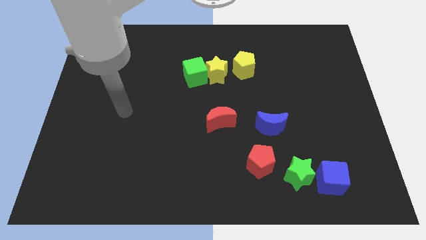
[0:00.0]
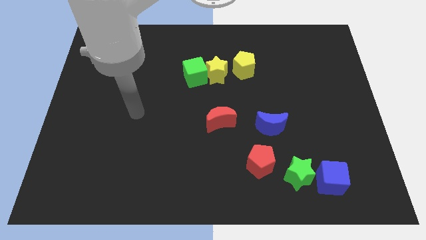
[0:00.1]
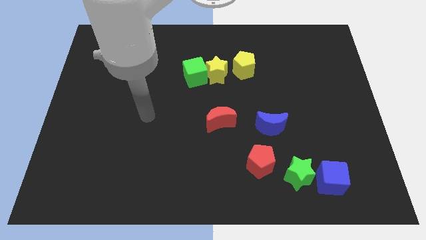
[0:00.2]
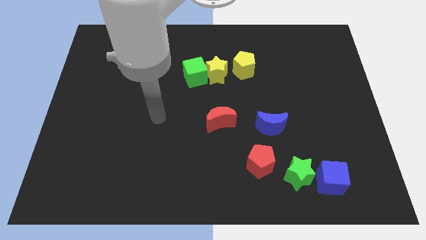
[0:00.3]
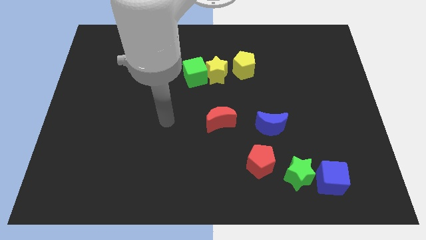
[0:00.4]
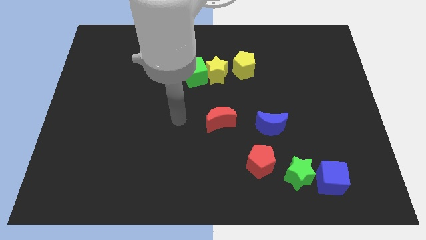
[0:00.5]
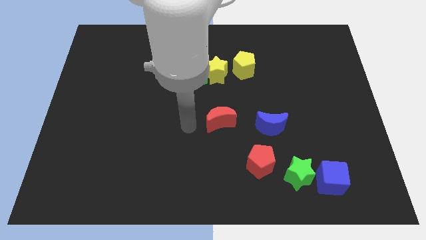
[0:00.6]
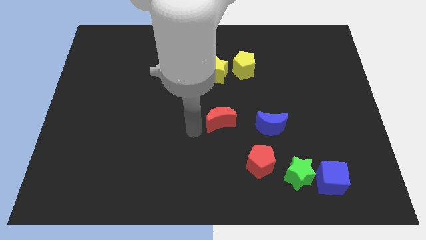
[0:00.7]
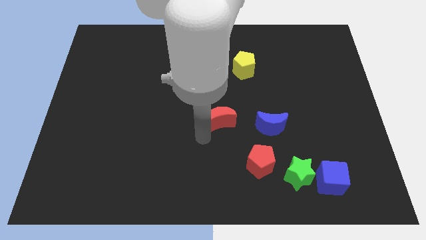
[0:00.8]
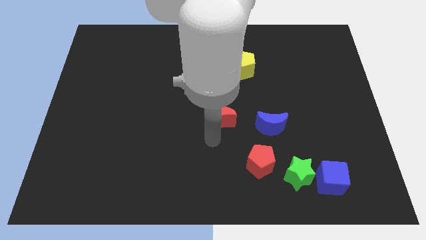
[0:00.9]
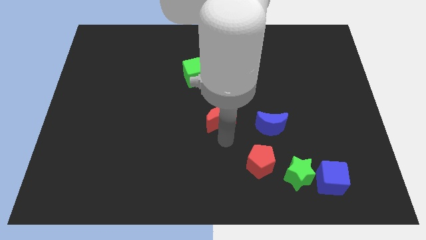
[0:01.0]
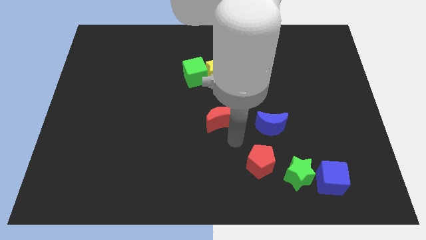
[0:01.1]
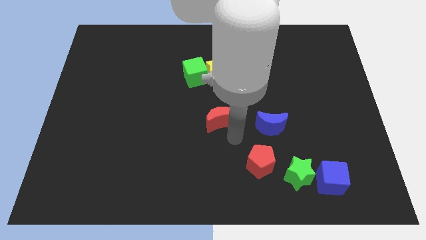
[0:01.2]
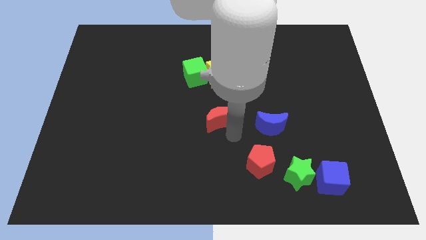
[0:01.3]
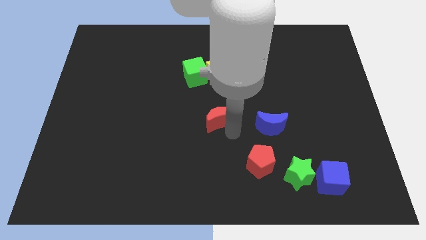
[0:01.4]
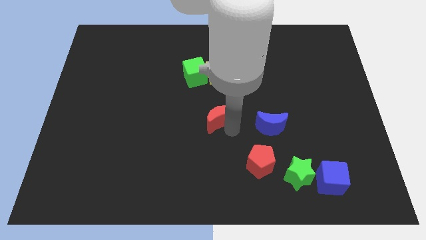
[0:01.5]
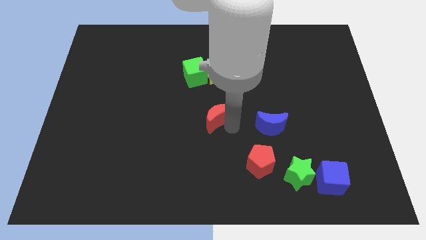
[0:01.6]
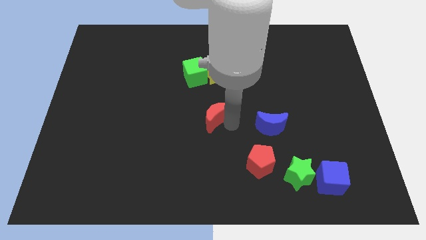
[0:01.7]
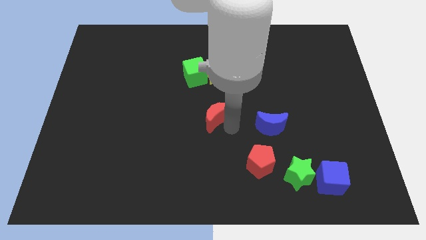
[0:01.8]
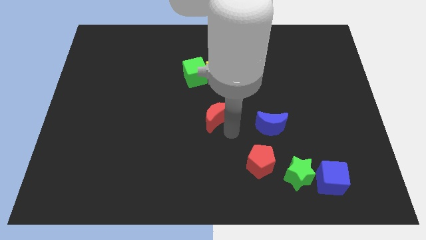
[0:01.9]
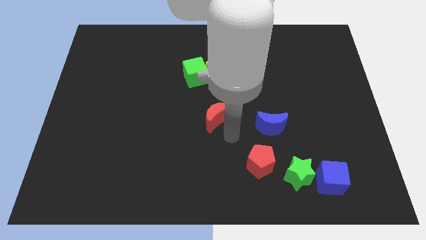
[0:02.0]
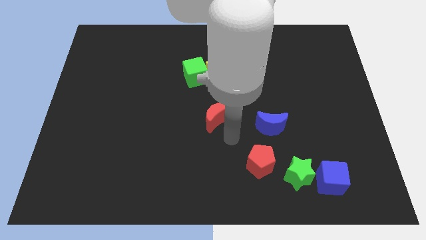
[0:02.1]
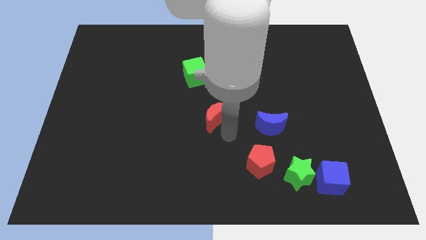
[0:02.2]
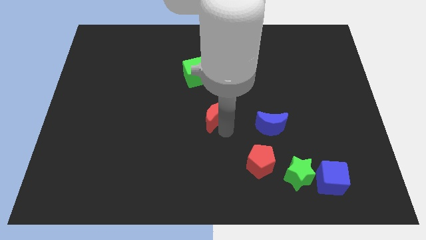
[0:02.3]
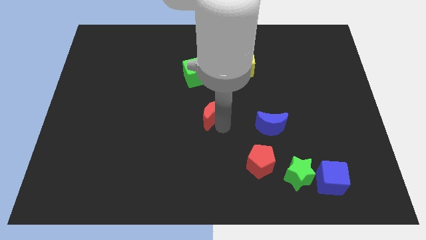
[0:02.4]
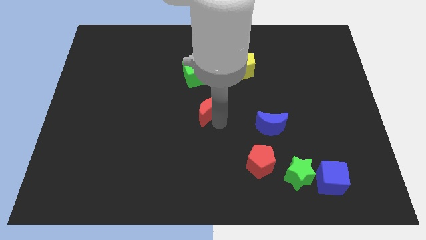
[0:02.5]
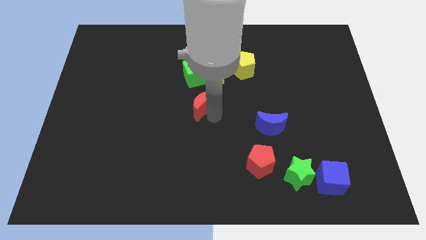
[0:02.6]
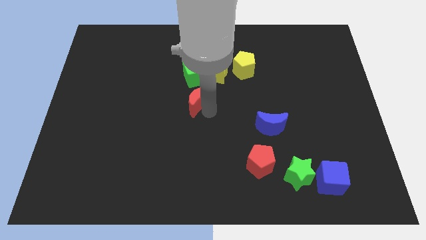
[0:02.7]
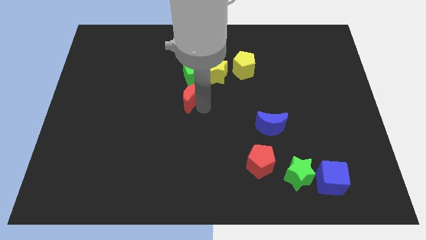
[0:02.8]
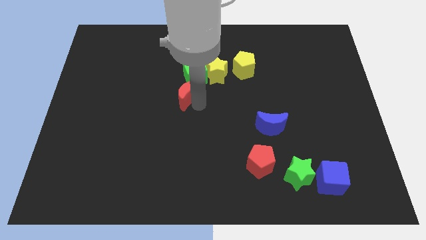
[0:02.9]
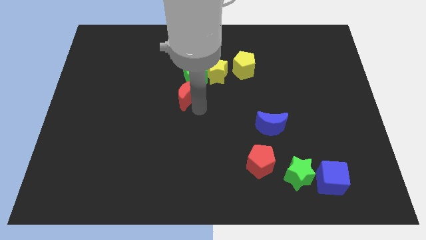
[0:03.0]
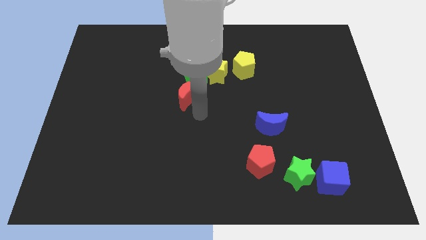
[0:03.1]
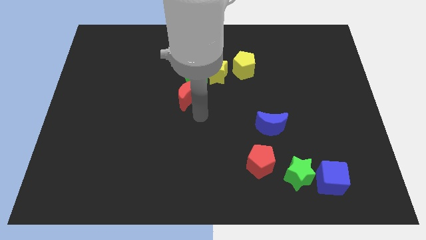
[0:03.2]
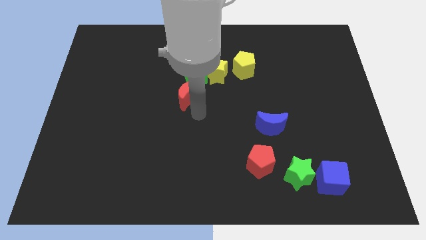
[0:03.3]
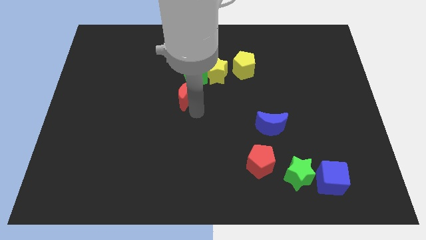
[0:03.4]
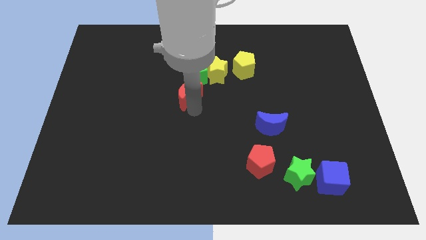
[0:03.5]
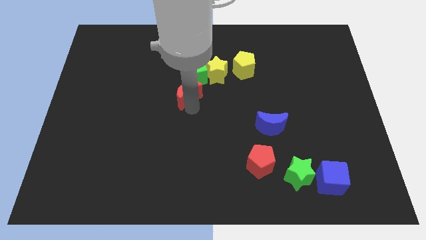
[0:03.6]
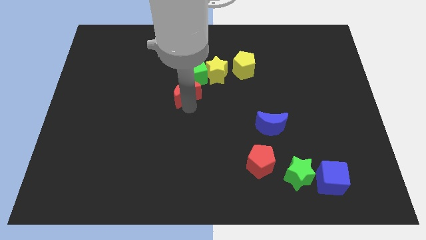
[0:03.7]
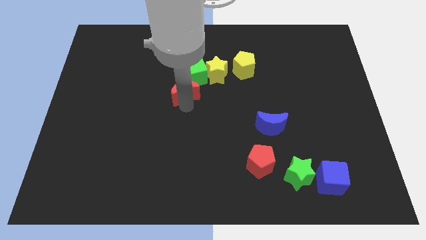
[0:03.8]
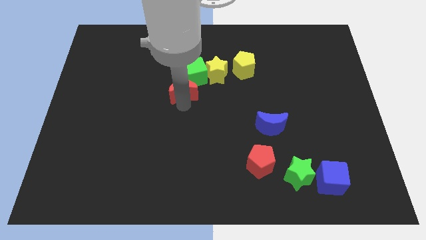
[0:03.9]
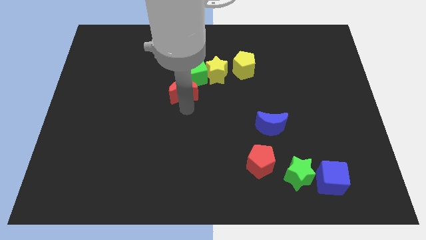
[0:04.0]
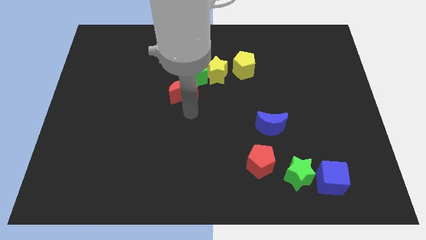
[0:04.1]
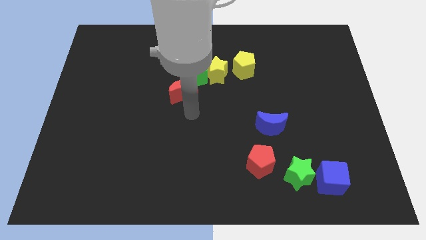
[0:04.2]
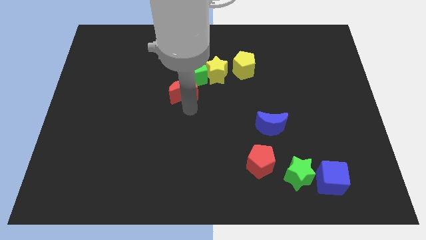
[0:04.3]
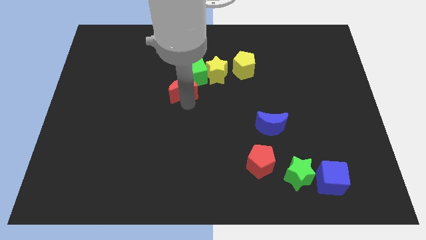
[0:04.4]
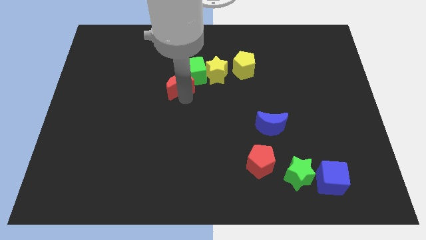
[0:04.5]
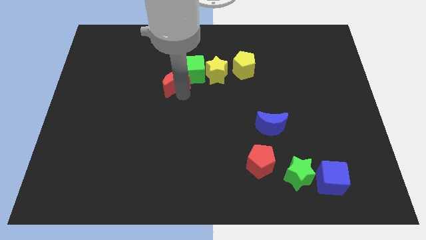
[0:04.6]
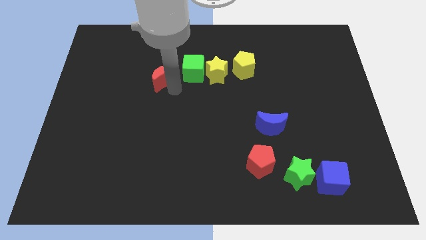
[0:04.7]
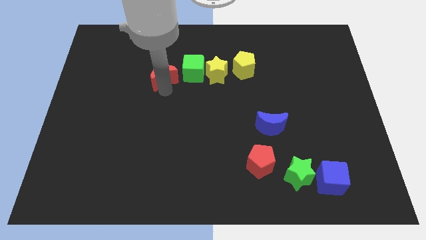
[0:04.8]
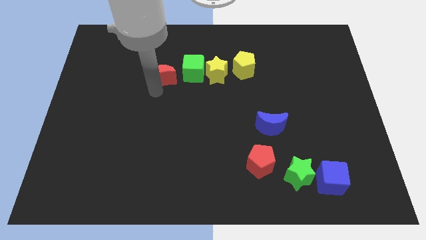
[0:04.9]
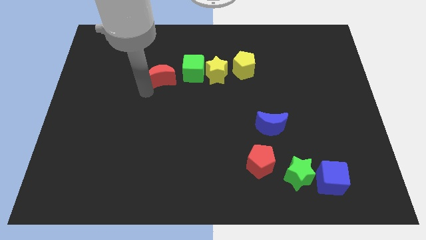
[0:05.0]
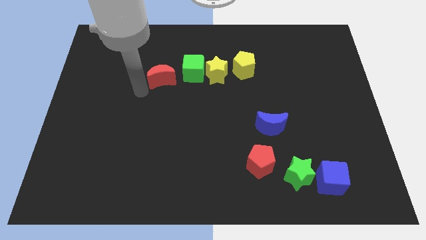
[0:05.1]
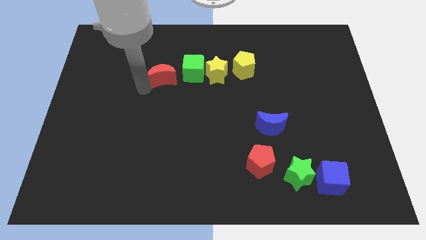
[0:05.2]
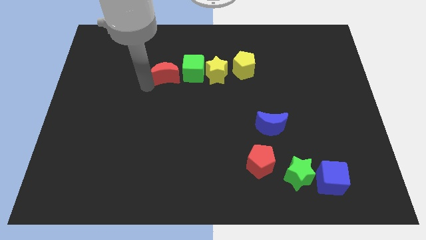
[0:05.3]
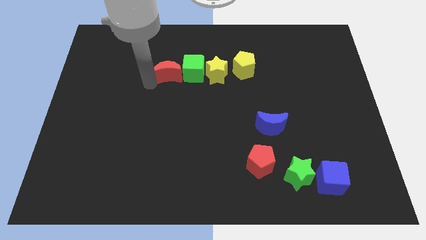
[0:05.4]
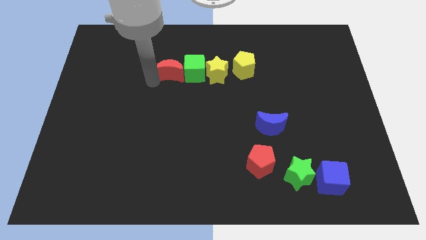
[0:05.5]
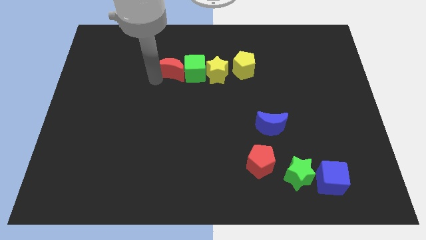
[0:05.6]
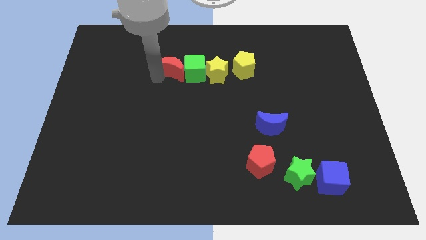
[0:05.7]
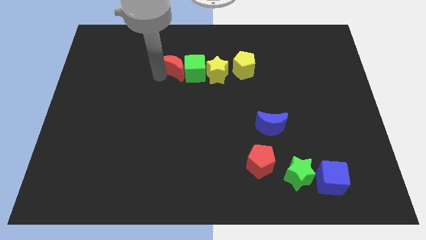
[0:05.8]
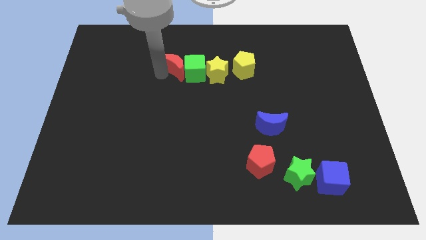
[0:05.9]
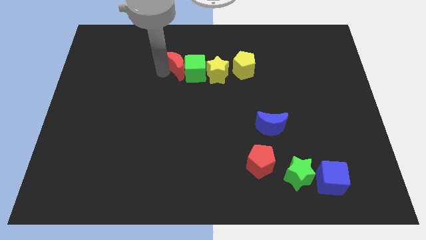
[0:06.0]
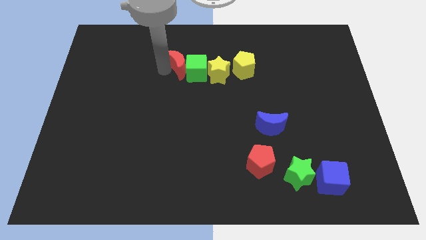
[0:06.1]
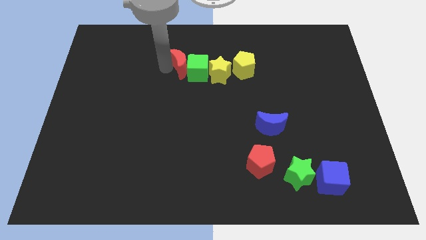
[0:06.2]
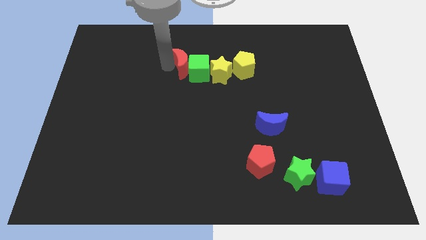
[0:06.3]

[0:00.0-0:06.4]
move the red moon to the top left of the yellow star
